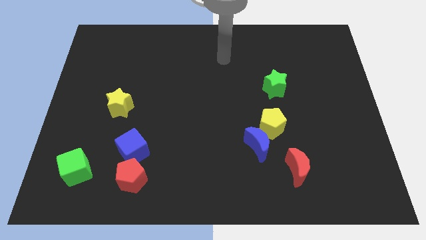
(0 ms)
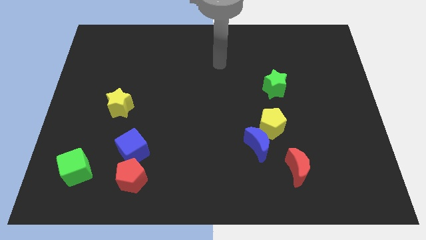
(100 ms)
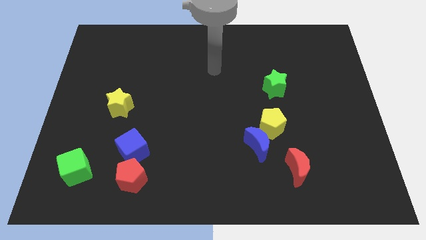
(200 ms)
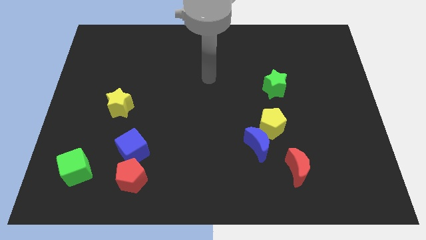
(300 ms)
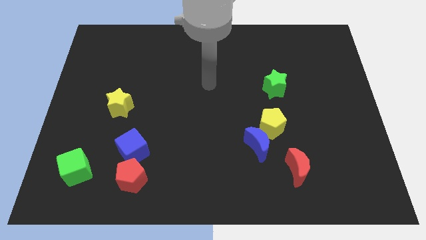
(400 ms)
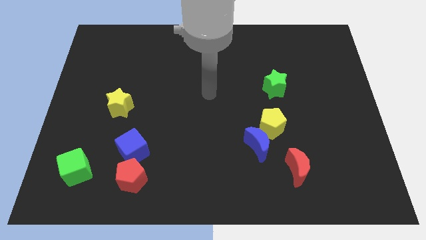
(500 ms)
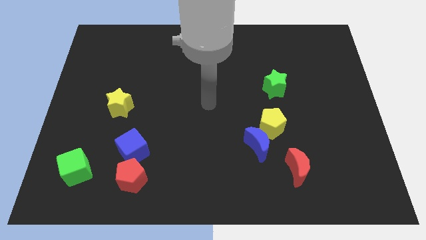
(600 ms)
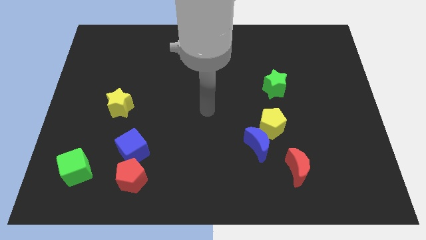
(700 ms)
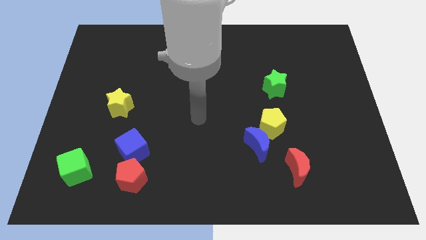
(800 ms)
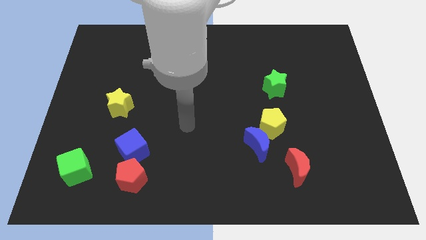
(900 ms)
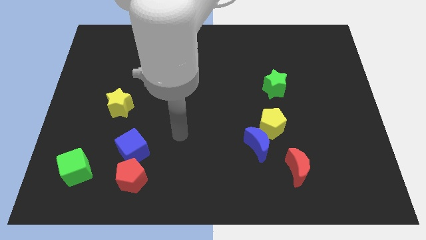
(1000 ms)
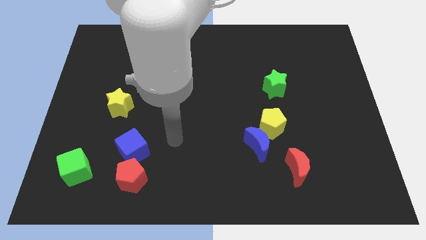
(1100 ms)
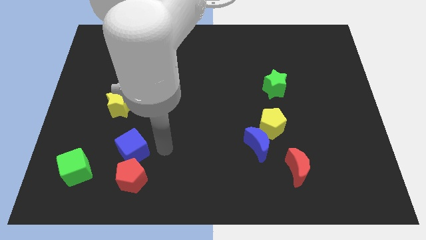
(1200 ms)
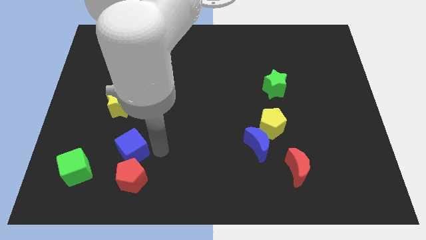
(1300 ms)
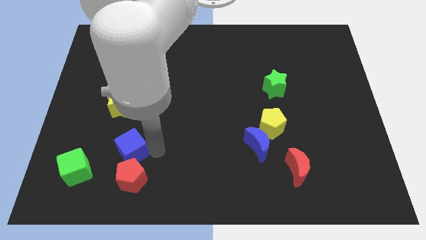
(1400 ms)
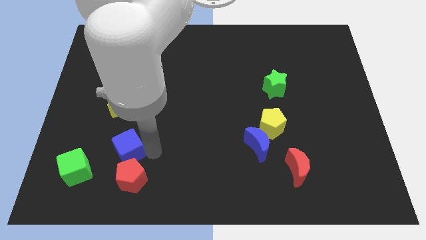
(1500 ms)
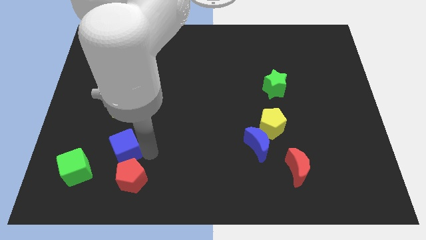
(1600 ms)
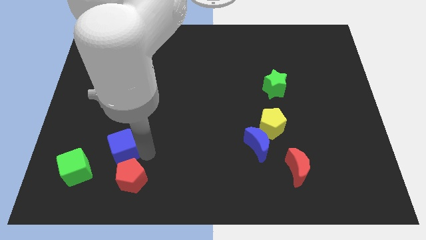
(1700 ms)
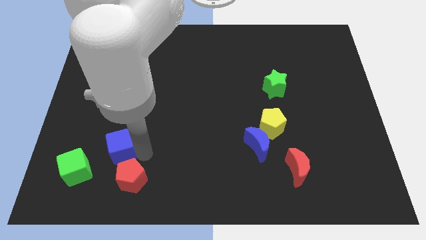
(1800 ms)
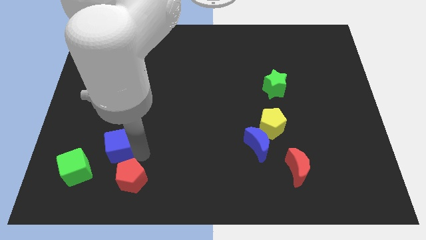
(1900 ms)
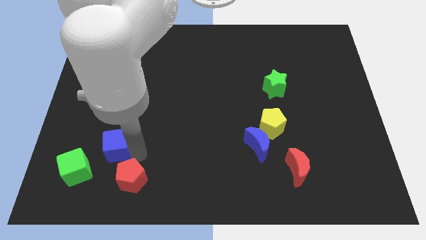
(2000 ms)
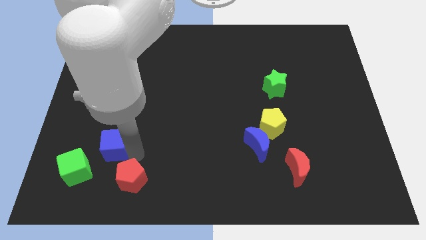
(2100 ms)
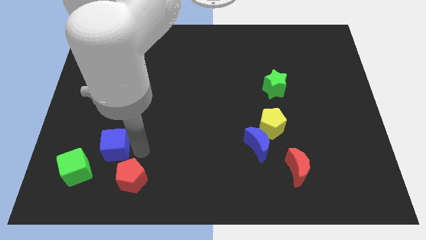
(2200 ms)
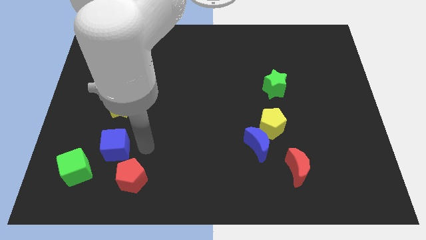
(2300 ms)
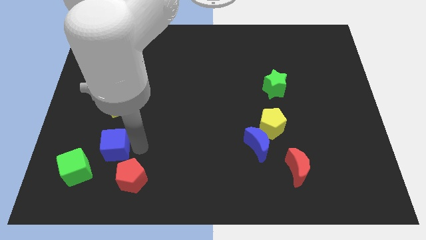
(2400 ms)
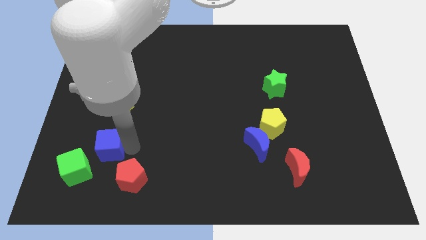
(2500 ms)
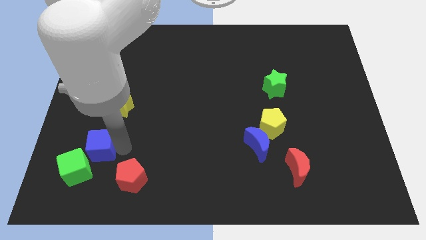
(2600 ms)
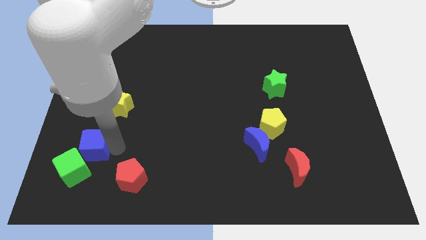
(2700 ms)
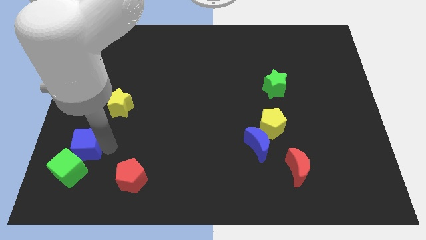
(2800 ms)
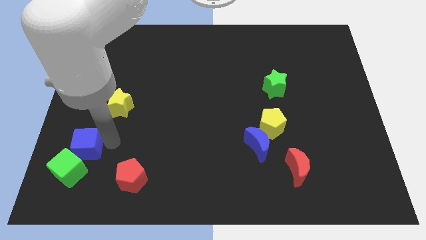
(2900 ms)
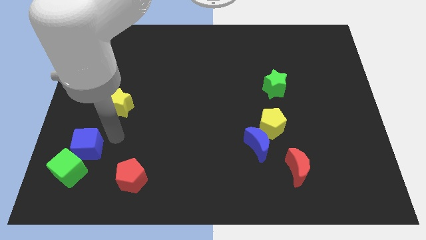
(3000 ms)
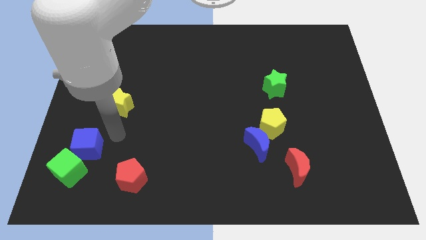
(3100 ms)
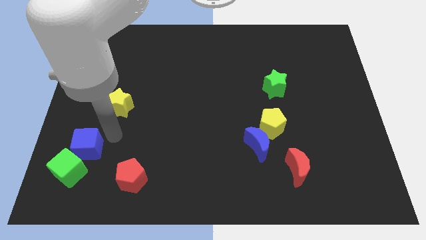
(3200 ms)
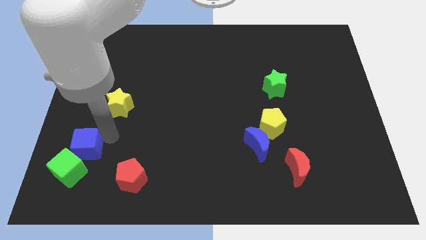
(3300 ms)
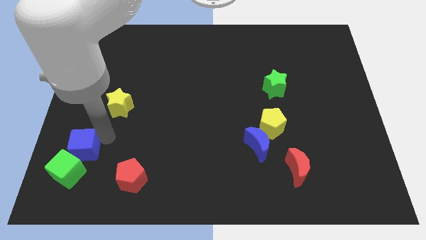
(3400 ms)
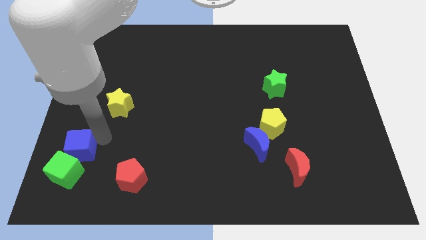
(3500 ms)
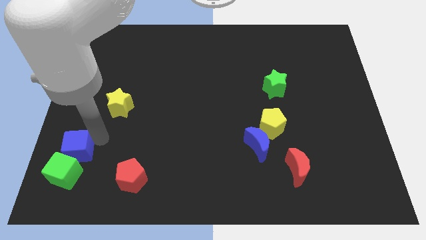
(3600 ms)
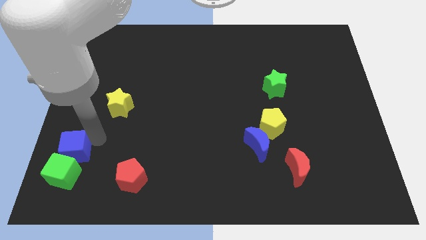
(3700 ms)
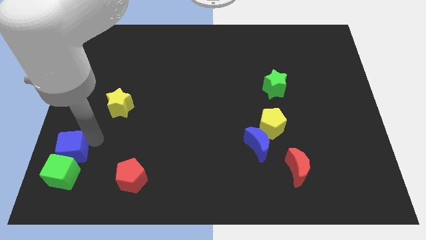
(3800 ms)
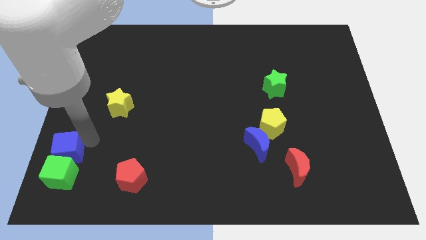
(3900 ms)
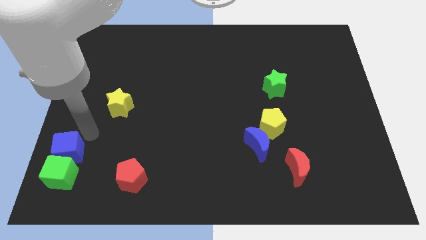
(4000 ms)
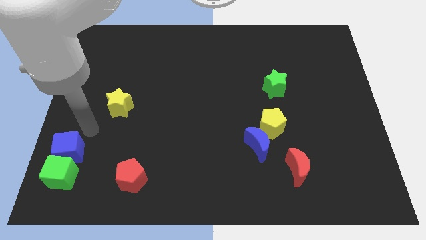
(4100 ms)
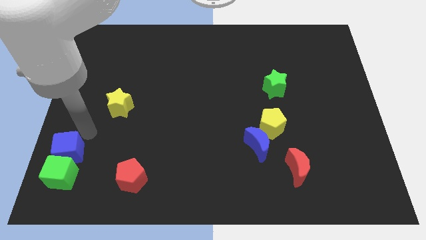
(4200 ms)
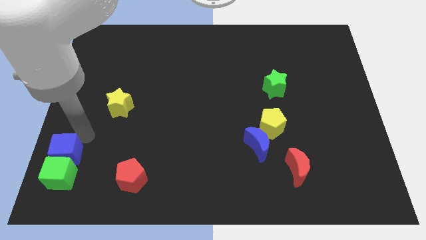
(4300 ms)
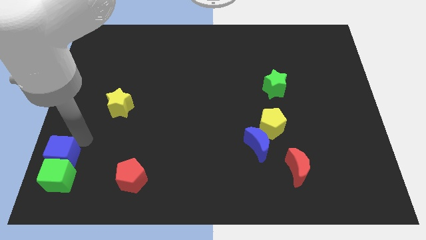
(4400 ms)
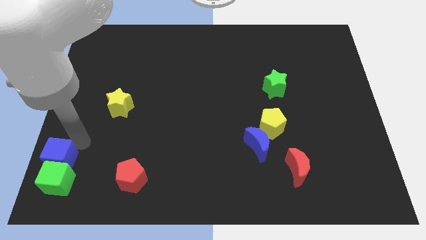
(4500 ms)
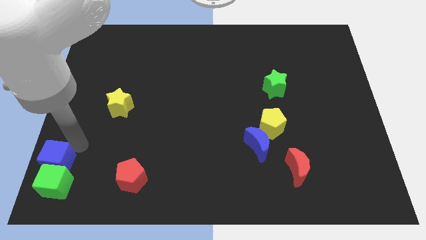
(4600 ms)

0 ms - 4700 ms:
push the blue cube to the bottom left of the board

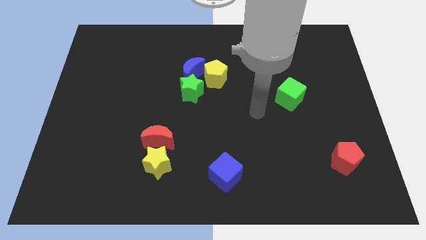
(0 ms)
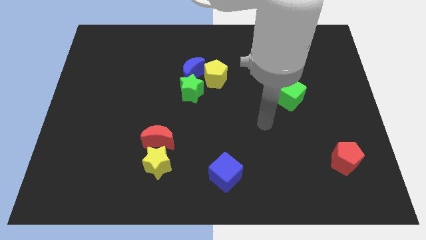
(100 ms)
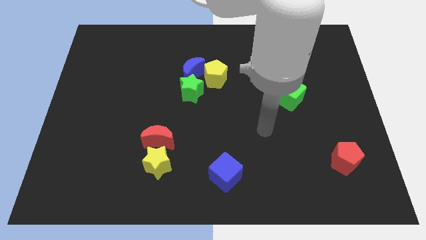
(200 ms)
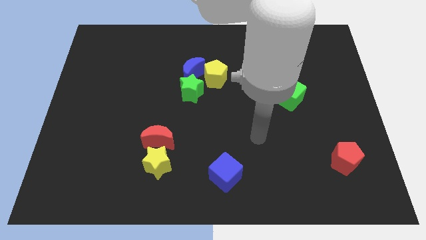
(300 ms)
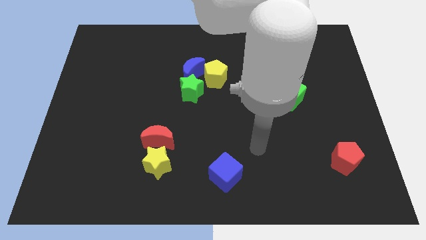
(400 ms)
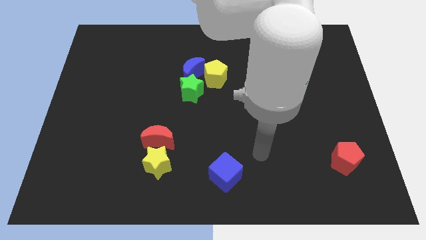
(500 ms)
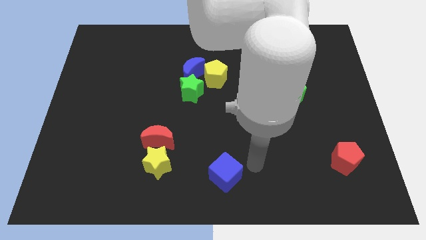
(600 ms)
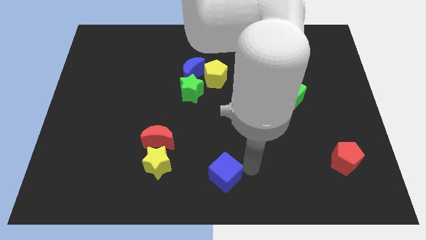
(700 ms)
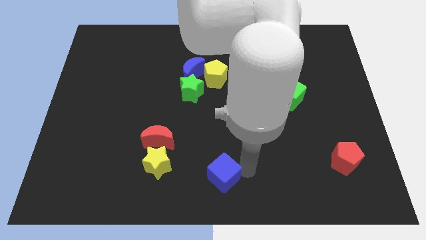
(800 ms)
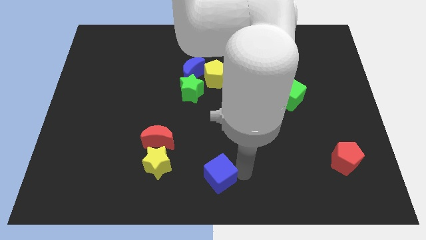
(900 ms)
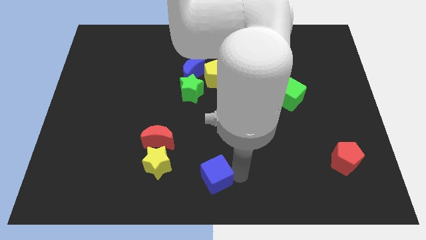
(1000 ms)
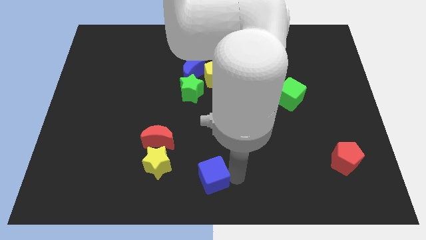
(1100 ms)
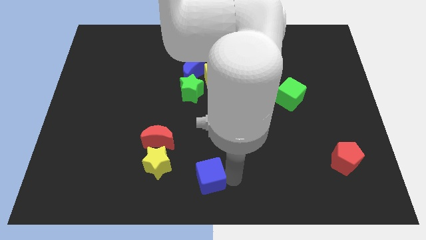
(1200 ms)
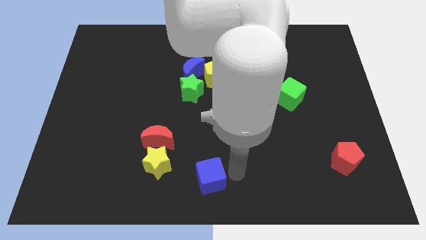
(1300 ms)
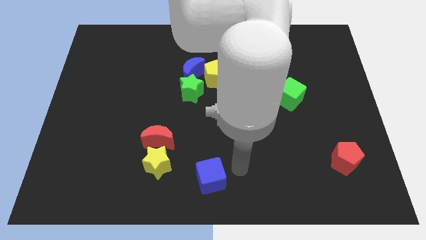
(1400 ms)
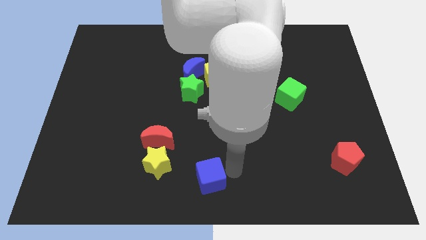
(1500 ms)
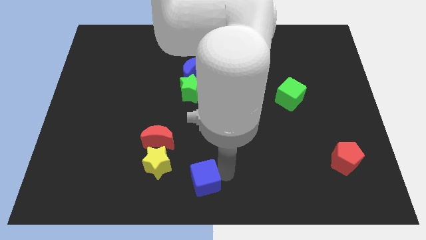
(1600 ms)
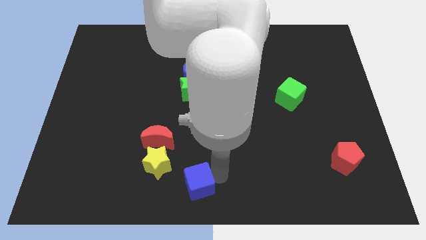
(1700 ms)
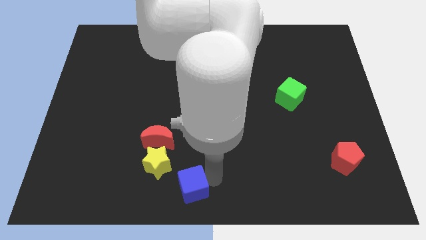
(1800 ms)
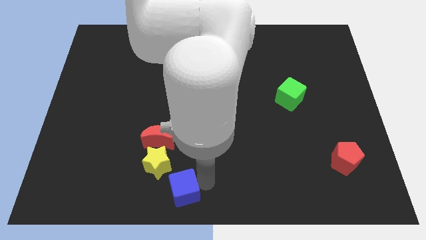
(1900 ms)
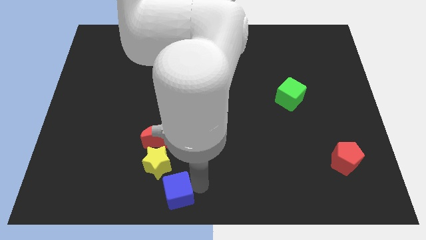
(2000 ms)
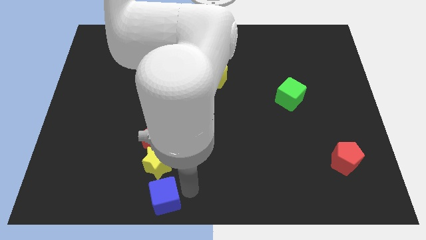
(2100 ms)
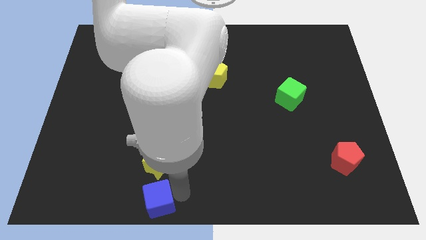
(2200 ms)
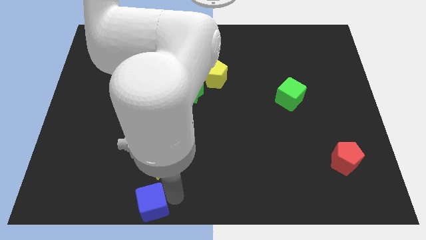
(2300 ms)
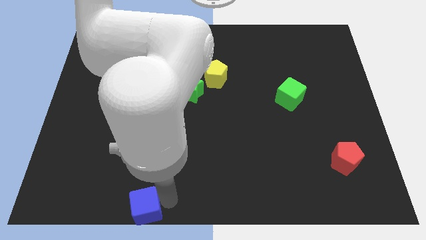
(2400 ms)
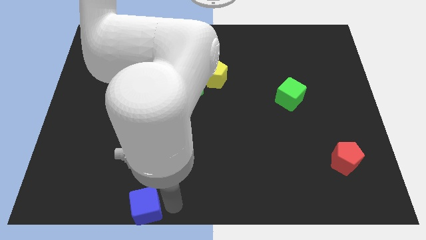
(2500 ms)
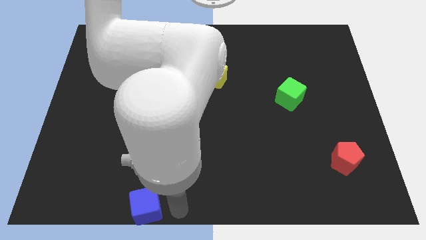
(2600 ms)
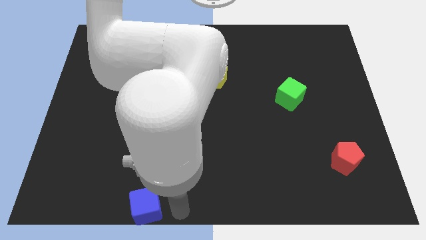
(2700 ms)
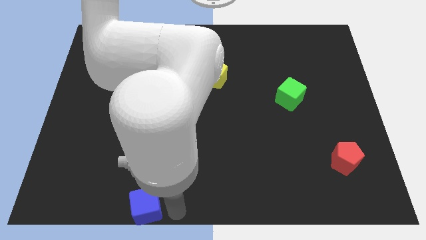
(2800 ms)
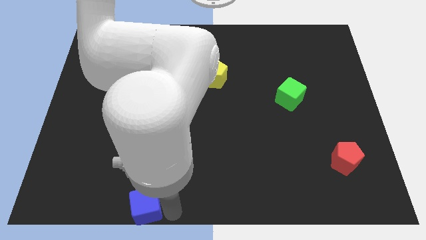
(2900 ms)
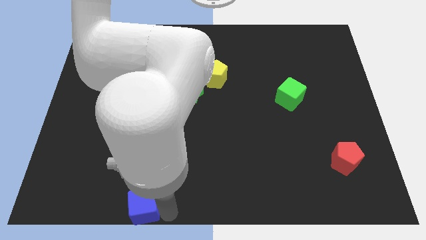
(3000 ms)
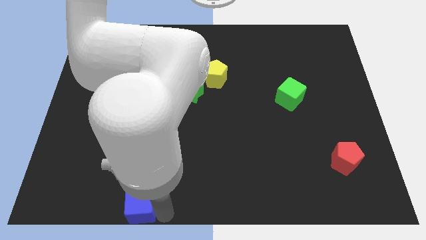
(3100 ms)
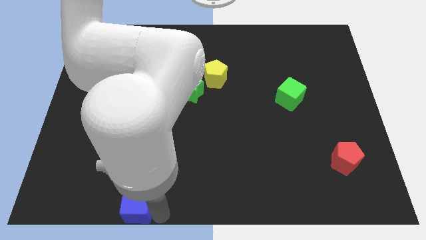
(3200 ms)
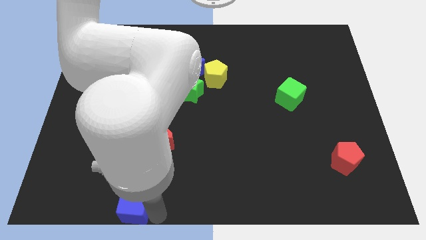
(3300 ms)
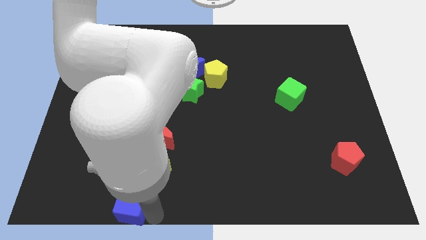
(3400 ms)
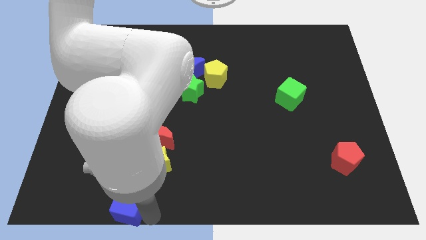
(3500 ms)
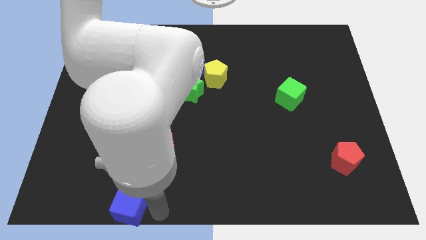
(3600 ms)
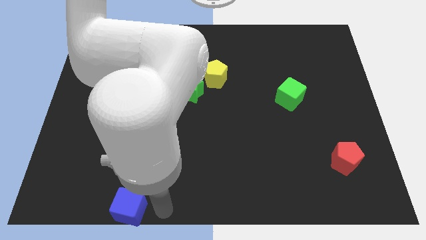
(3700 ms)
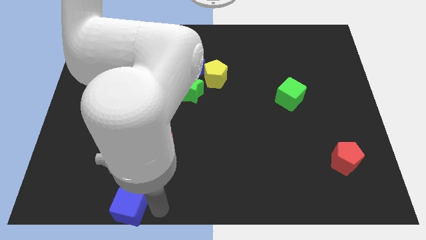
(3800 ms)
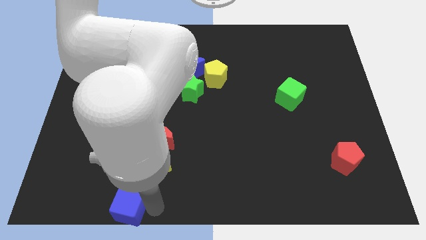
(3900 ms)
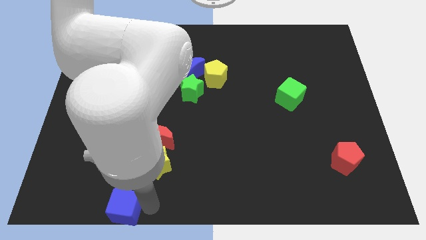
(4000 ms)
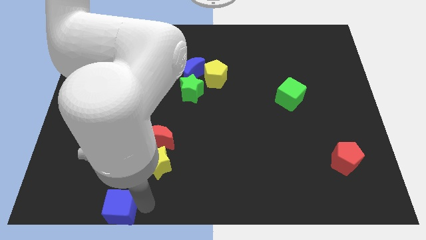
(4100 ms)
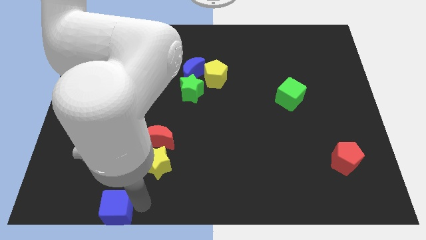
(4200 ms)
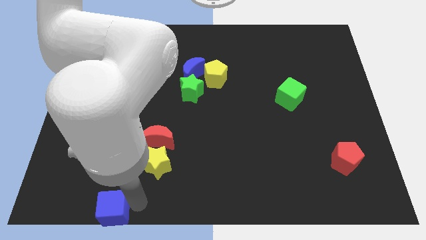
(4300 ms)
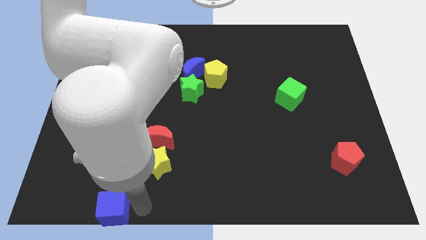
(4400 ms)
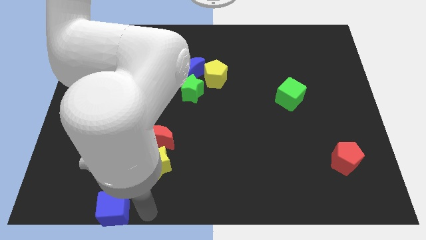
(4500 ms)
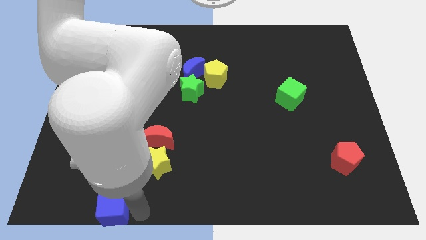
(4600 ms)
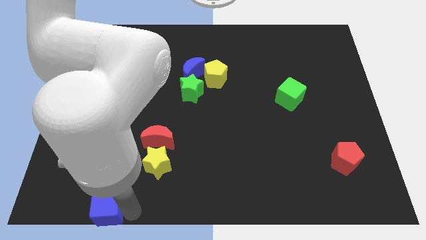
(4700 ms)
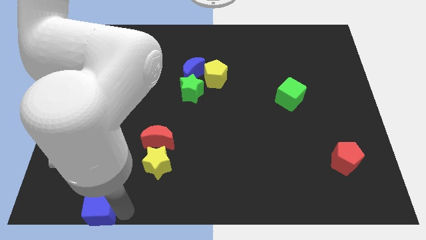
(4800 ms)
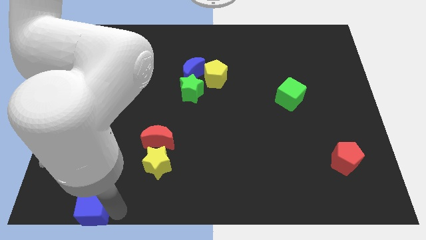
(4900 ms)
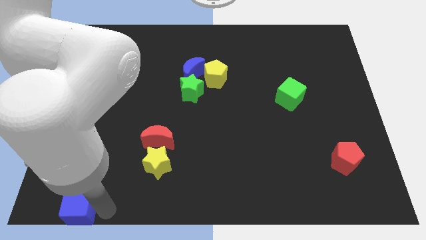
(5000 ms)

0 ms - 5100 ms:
move the blue cube to the bottom left of the board
